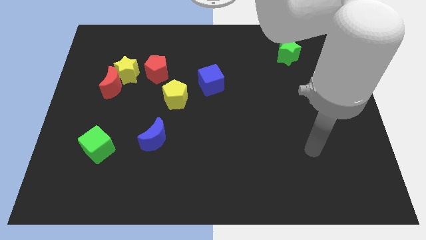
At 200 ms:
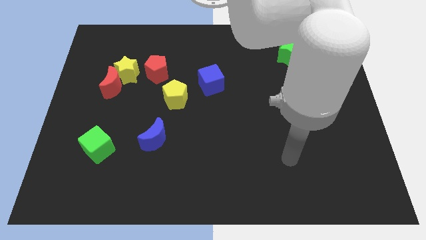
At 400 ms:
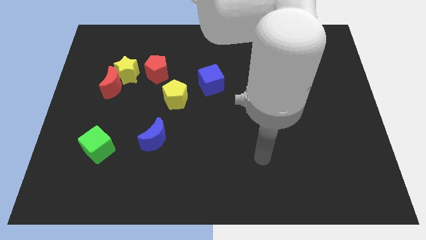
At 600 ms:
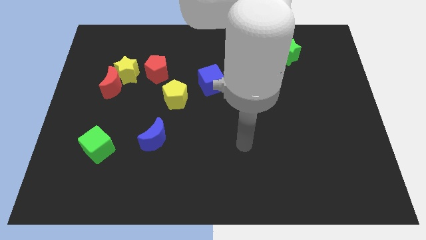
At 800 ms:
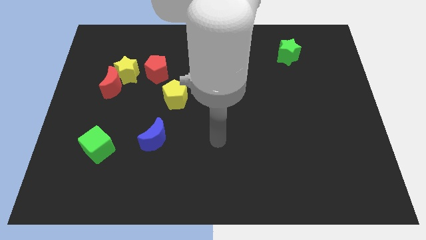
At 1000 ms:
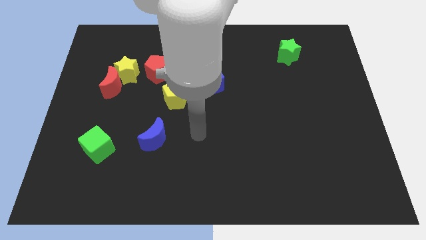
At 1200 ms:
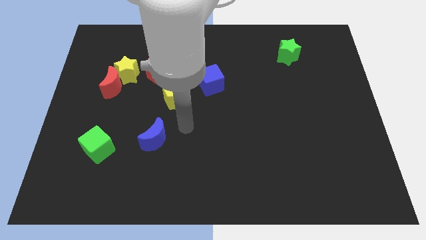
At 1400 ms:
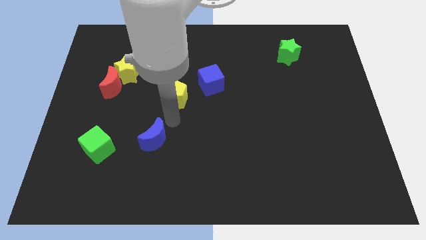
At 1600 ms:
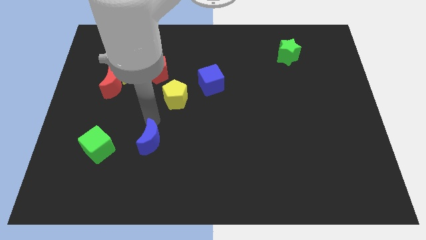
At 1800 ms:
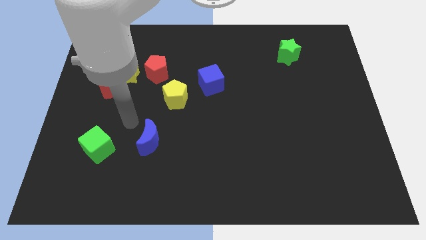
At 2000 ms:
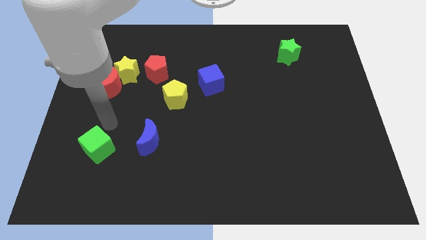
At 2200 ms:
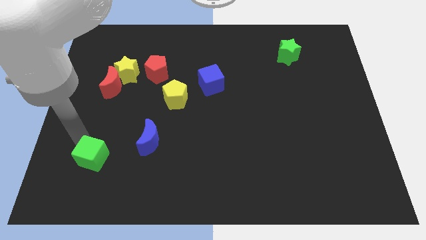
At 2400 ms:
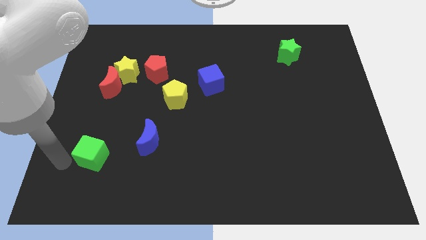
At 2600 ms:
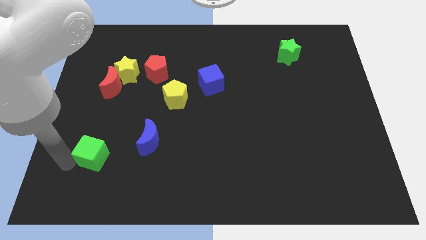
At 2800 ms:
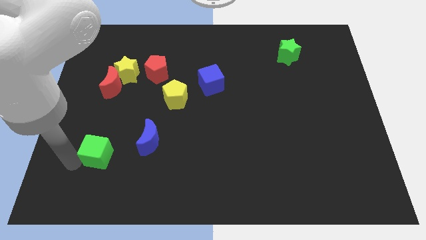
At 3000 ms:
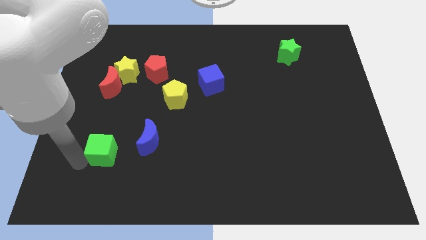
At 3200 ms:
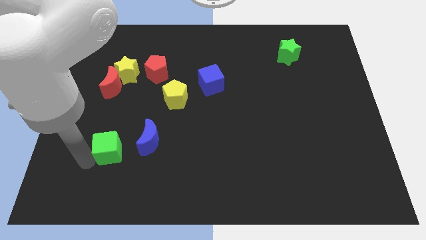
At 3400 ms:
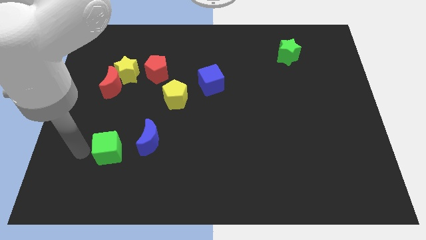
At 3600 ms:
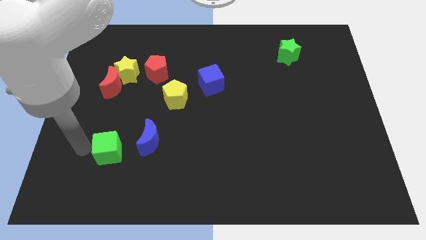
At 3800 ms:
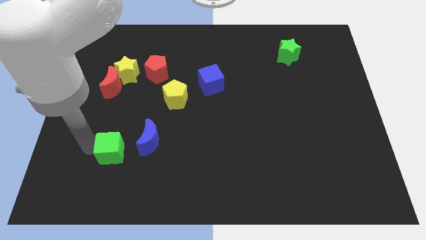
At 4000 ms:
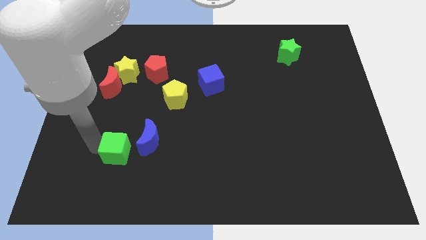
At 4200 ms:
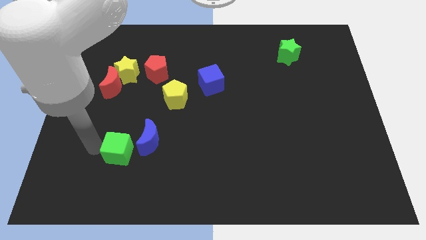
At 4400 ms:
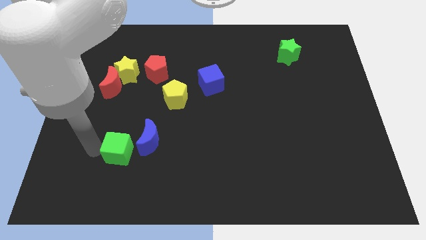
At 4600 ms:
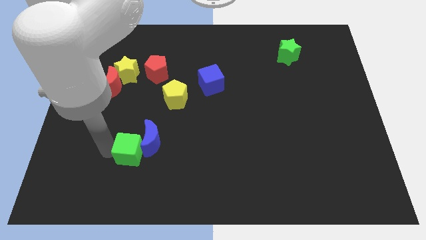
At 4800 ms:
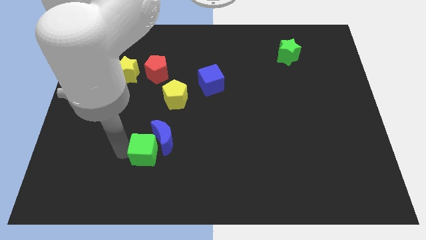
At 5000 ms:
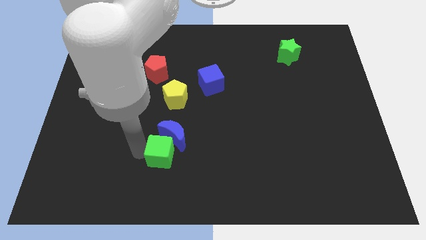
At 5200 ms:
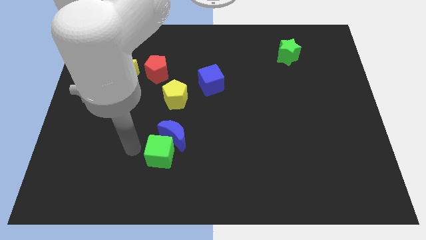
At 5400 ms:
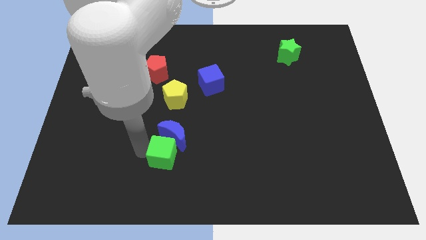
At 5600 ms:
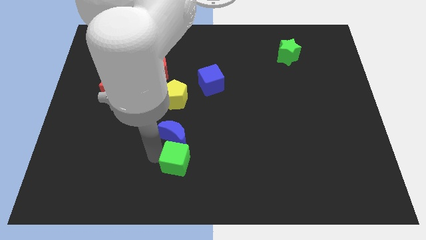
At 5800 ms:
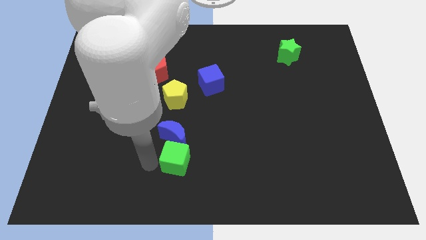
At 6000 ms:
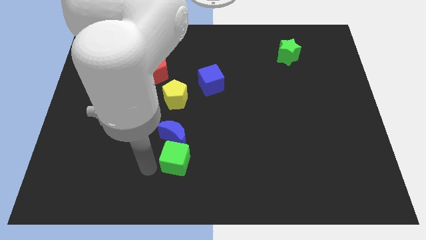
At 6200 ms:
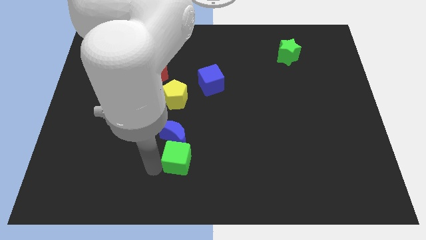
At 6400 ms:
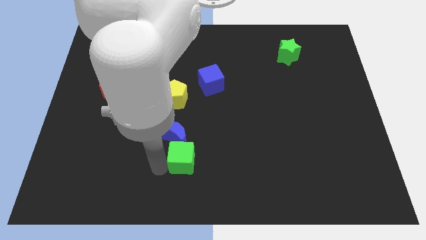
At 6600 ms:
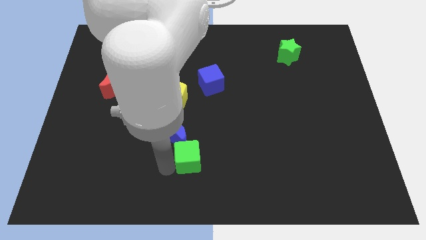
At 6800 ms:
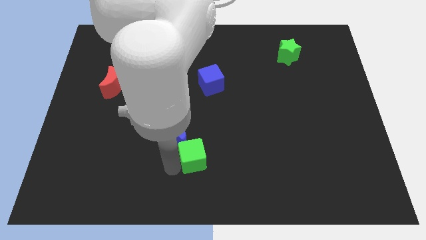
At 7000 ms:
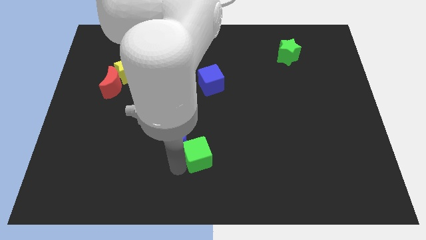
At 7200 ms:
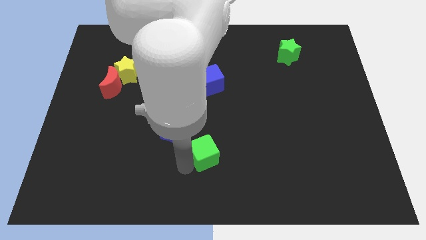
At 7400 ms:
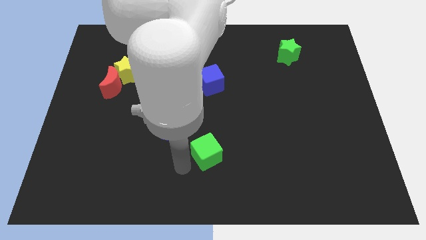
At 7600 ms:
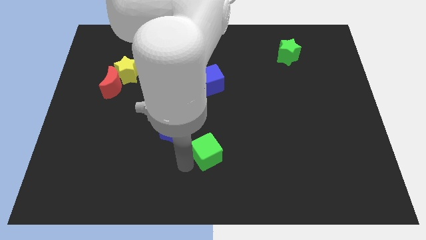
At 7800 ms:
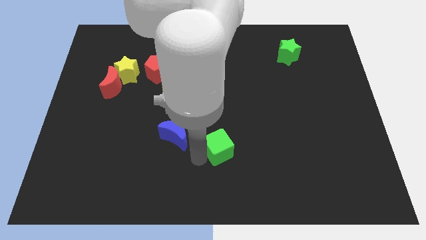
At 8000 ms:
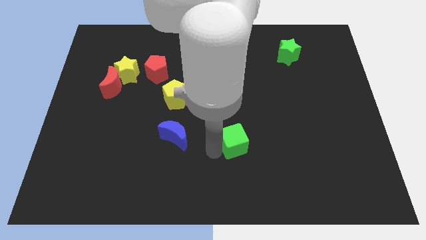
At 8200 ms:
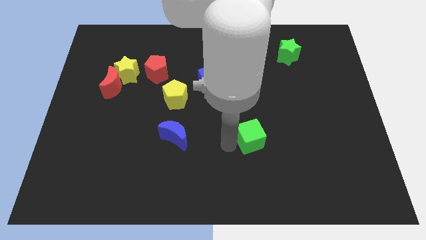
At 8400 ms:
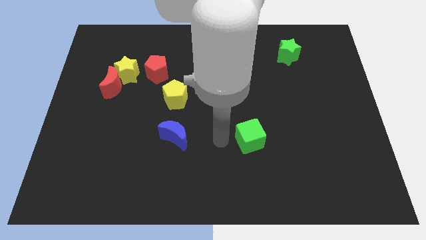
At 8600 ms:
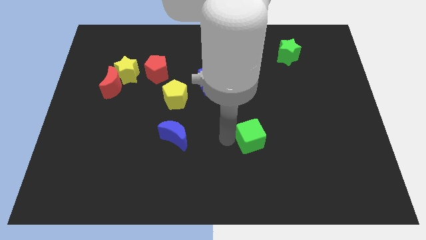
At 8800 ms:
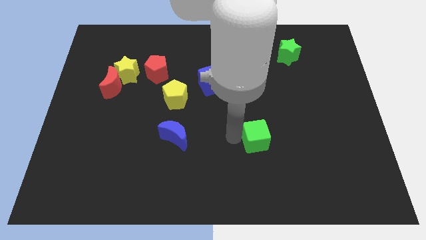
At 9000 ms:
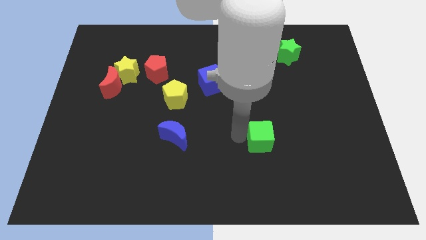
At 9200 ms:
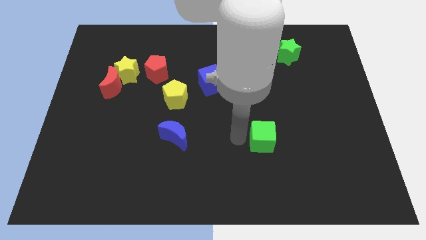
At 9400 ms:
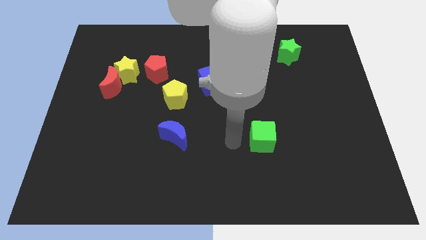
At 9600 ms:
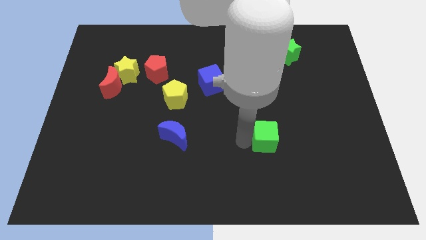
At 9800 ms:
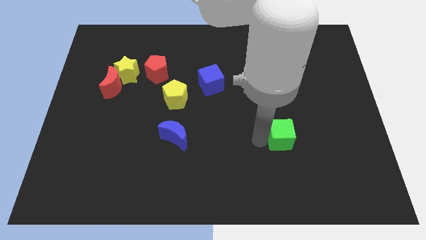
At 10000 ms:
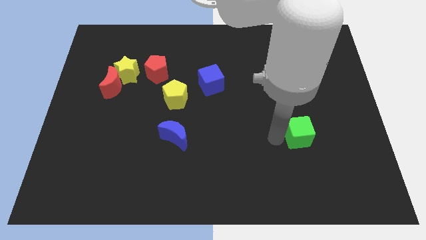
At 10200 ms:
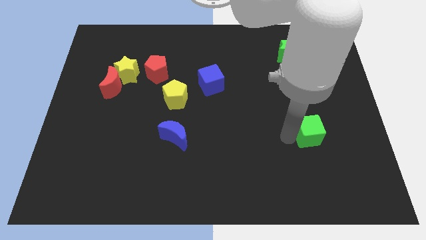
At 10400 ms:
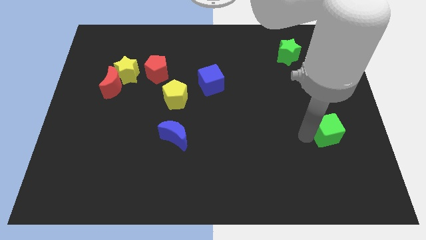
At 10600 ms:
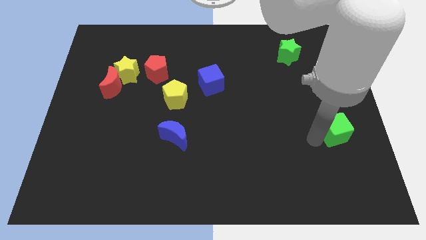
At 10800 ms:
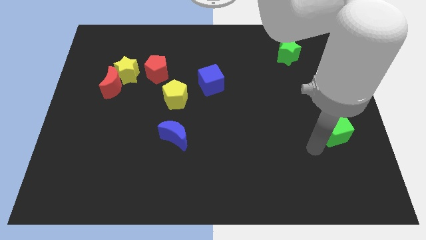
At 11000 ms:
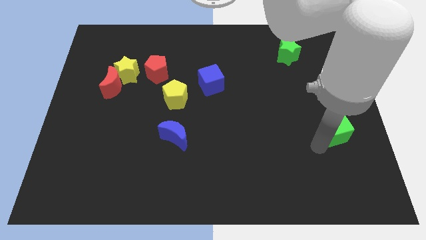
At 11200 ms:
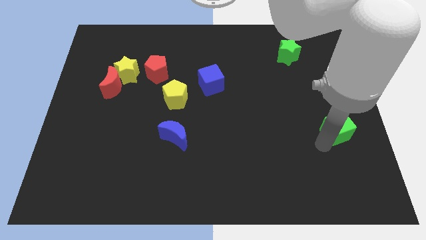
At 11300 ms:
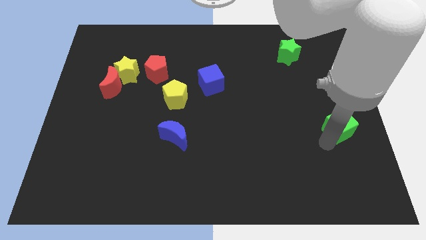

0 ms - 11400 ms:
slide the green cube to the right side of the board
